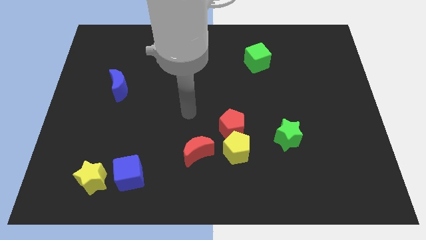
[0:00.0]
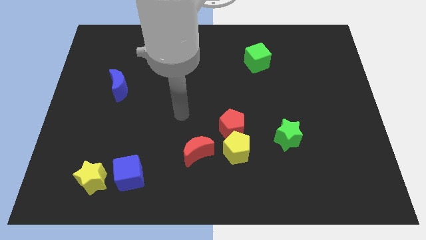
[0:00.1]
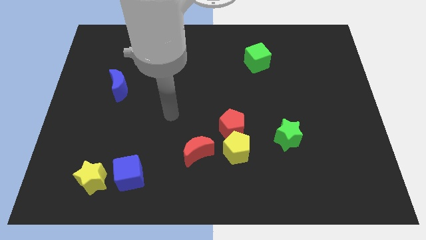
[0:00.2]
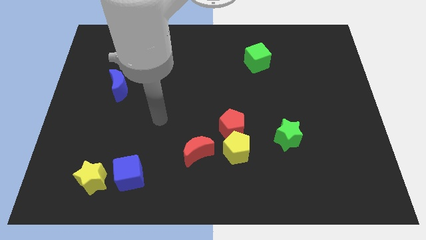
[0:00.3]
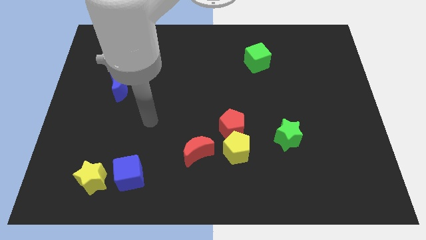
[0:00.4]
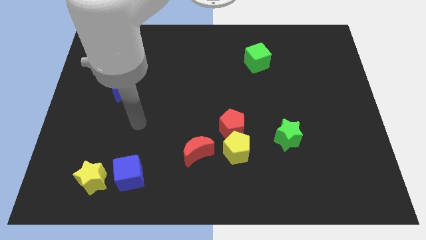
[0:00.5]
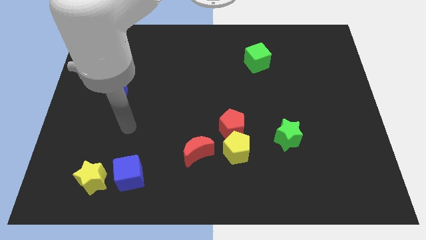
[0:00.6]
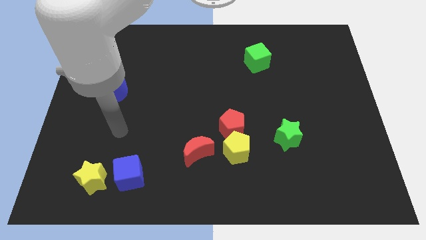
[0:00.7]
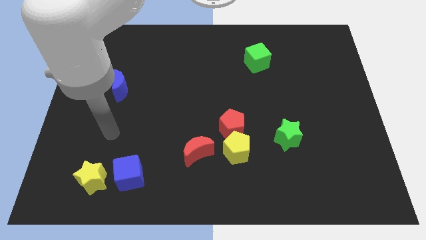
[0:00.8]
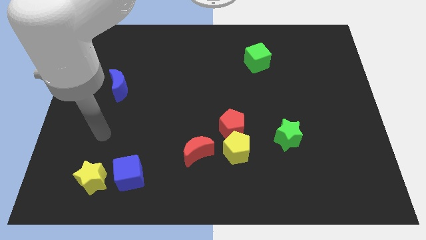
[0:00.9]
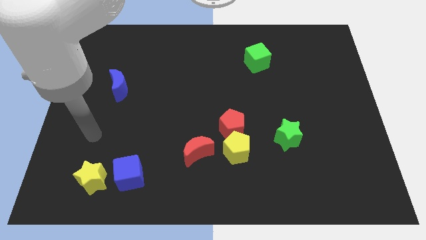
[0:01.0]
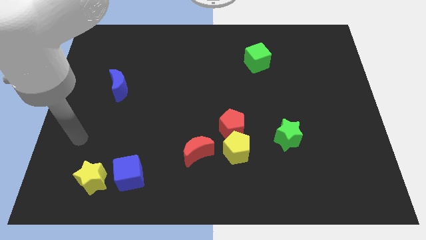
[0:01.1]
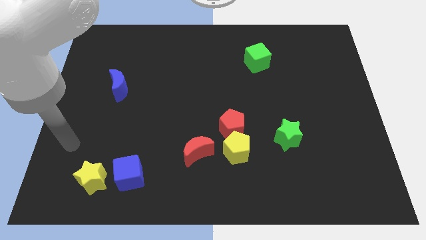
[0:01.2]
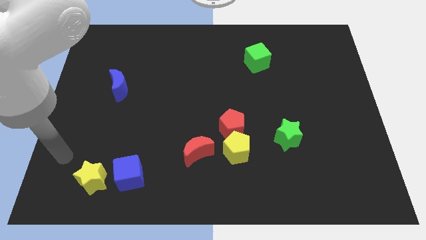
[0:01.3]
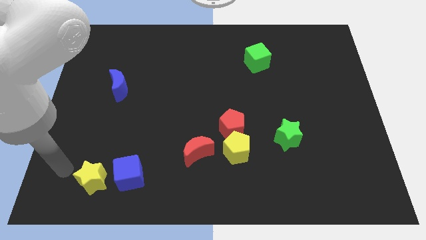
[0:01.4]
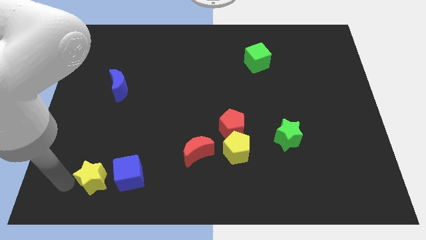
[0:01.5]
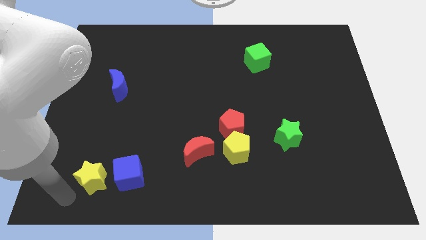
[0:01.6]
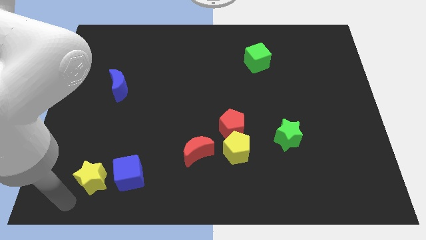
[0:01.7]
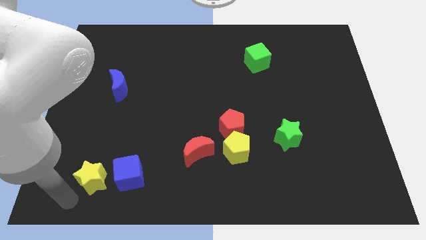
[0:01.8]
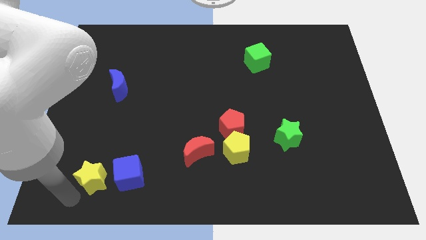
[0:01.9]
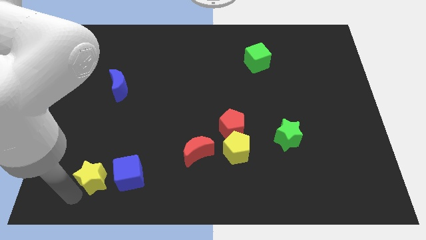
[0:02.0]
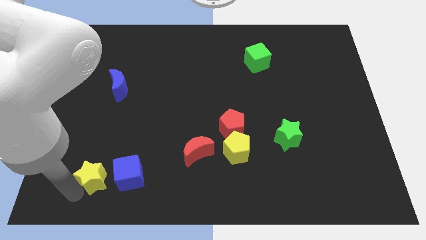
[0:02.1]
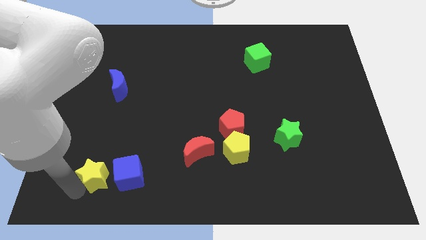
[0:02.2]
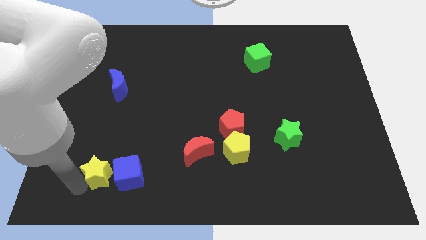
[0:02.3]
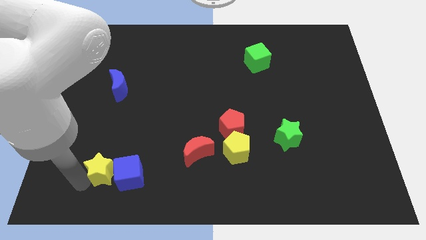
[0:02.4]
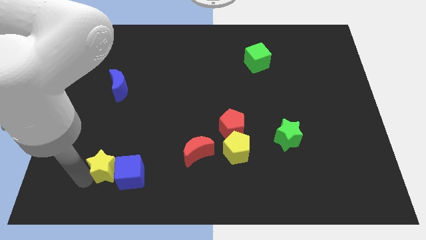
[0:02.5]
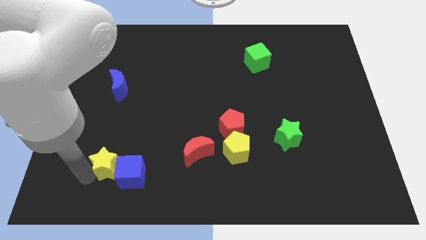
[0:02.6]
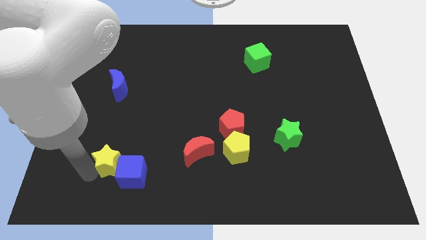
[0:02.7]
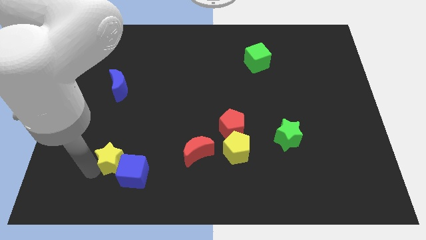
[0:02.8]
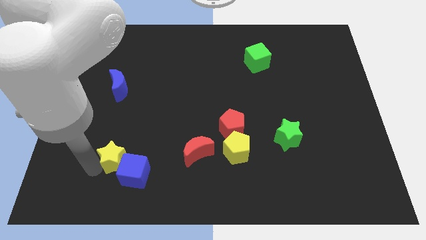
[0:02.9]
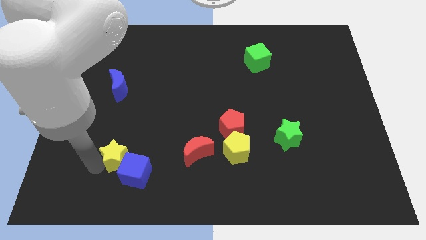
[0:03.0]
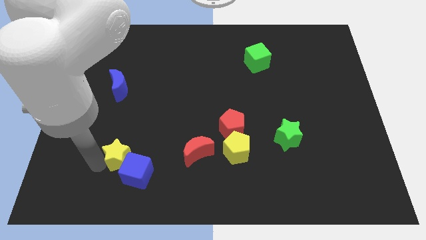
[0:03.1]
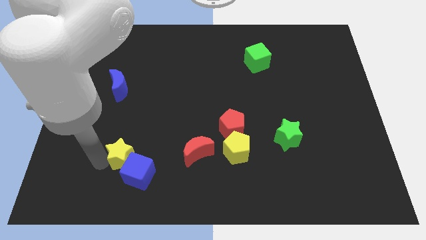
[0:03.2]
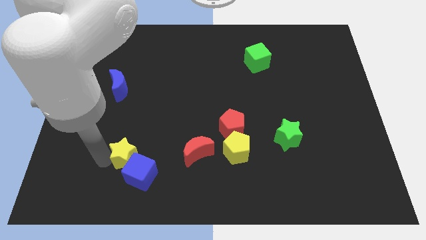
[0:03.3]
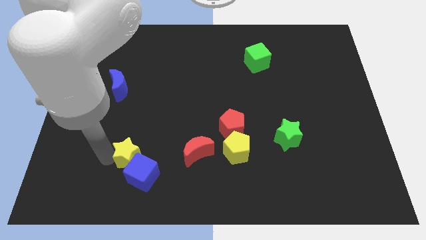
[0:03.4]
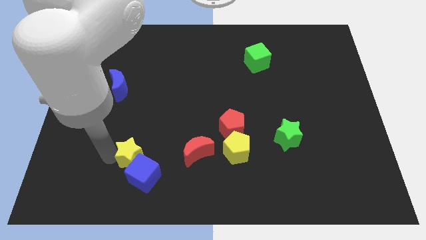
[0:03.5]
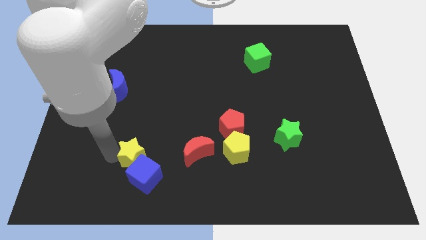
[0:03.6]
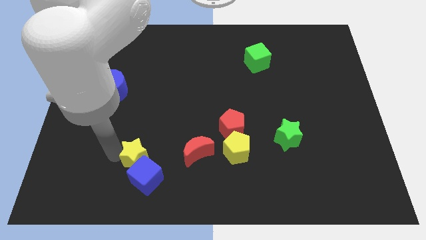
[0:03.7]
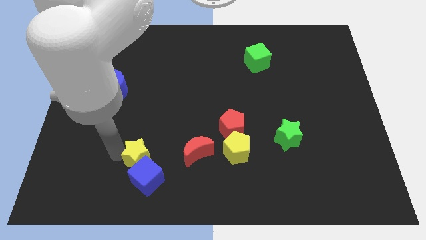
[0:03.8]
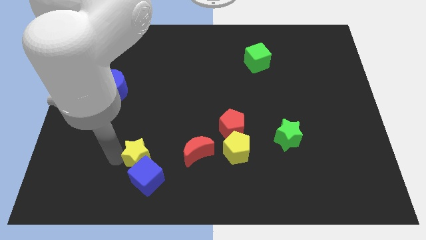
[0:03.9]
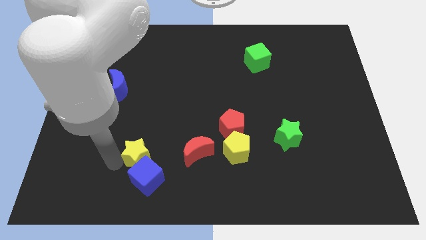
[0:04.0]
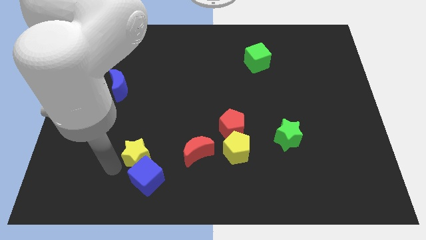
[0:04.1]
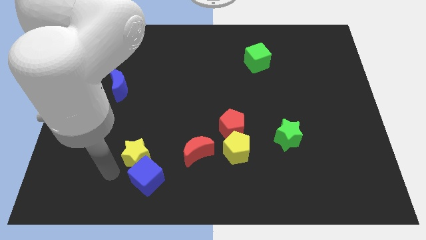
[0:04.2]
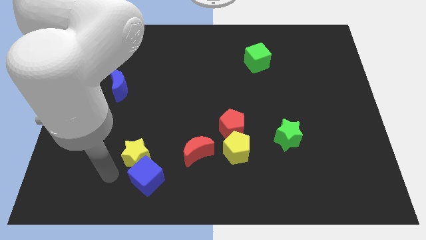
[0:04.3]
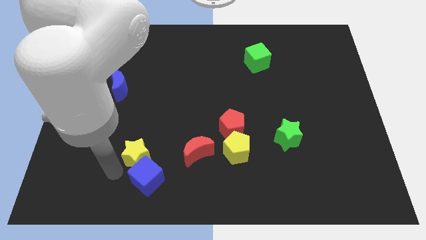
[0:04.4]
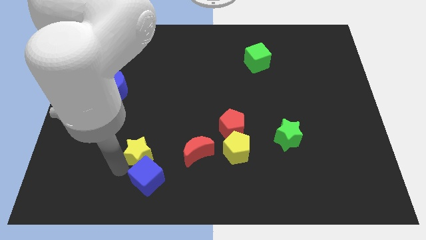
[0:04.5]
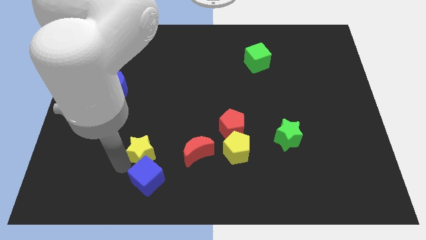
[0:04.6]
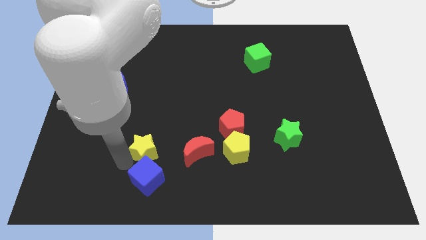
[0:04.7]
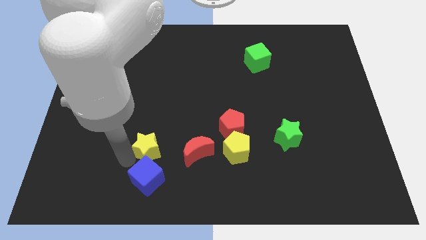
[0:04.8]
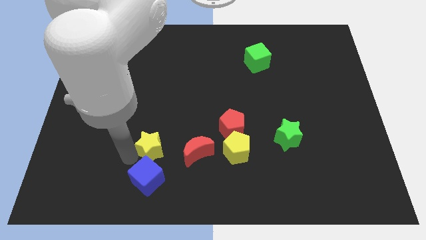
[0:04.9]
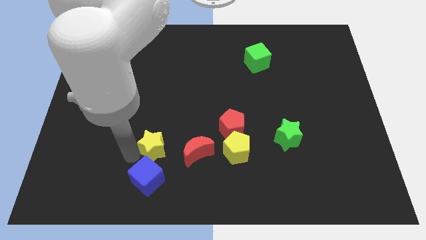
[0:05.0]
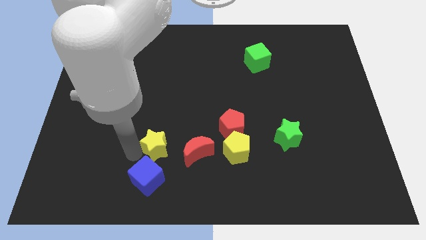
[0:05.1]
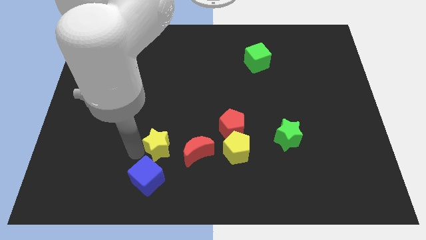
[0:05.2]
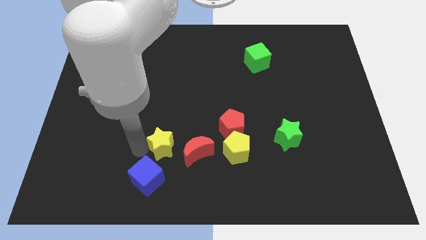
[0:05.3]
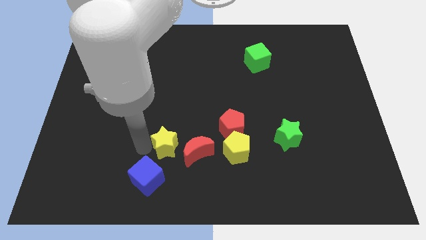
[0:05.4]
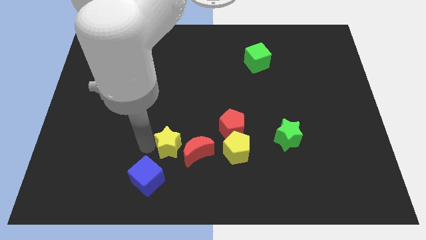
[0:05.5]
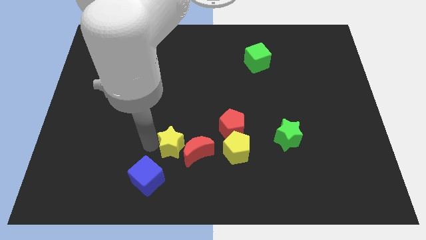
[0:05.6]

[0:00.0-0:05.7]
move the yellow star to the red moon
